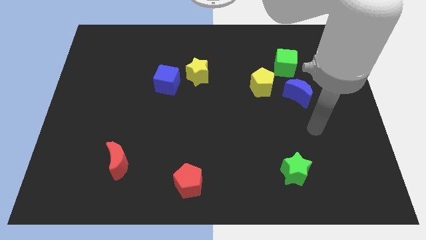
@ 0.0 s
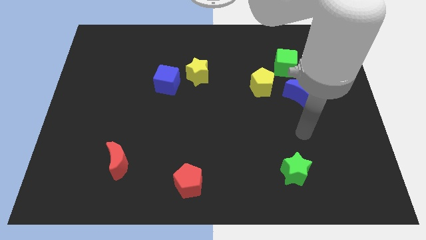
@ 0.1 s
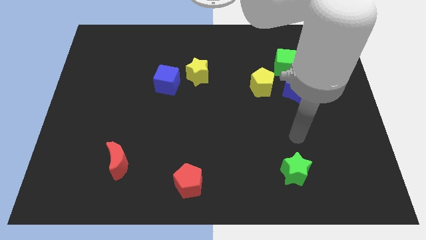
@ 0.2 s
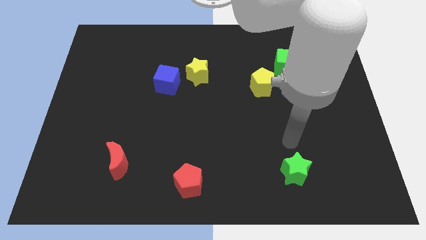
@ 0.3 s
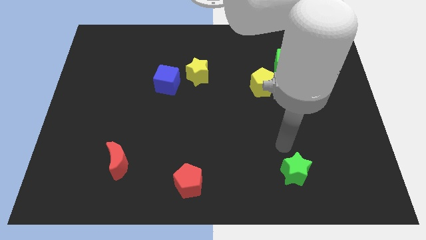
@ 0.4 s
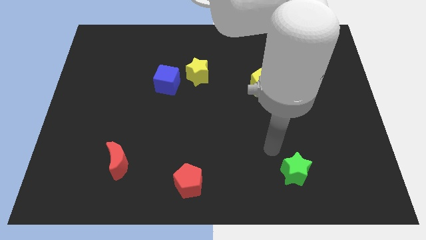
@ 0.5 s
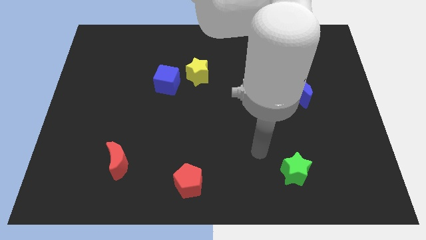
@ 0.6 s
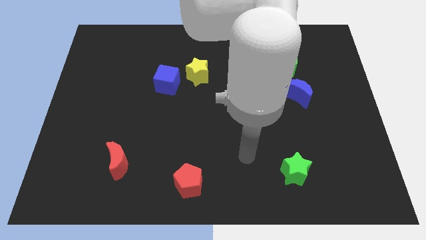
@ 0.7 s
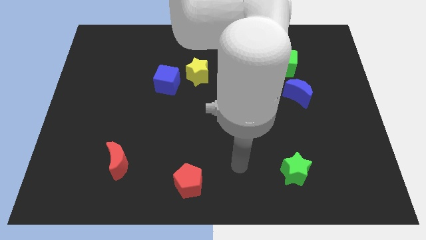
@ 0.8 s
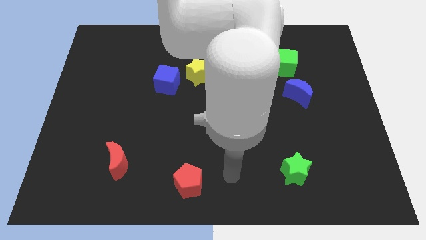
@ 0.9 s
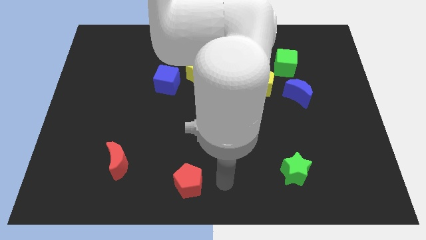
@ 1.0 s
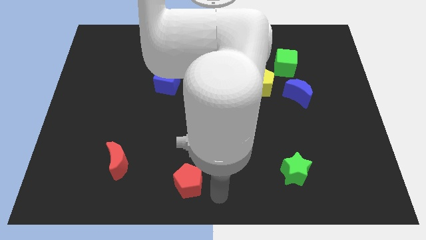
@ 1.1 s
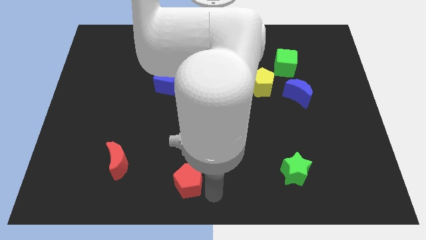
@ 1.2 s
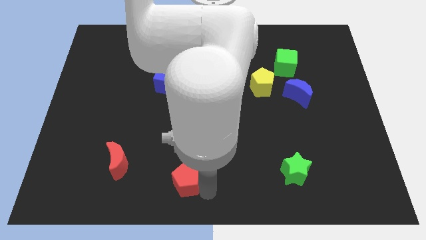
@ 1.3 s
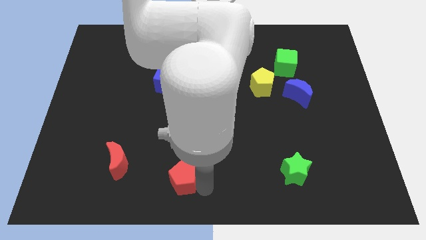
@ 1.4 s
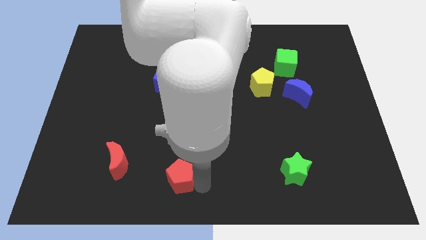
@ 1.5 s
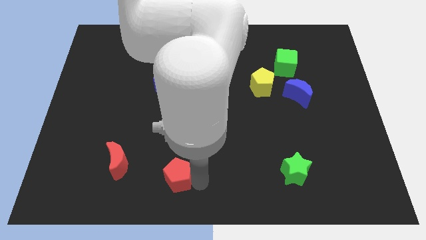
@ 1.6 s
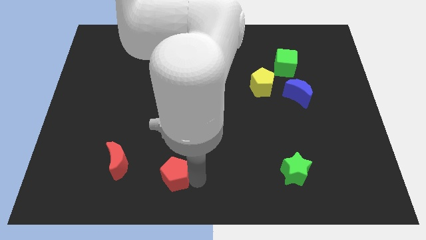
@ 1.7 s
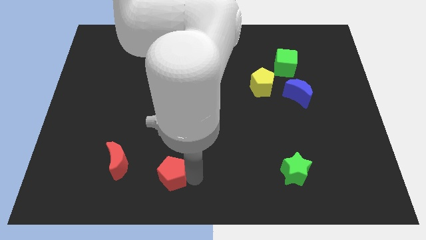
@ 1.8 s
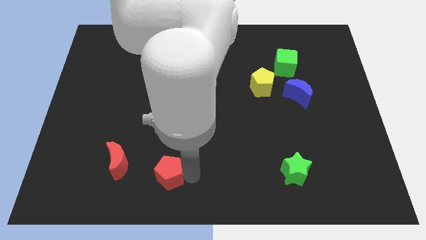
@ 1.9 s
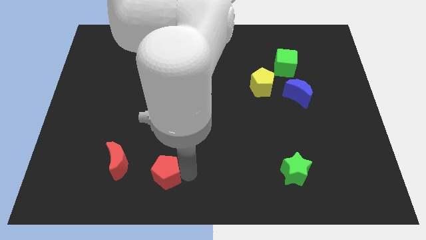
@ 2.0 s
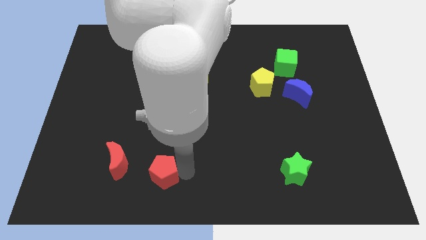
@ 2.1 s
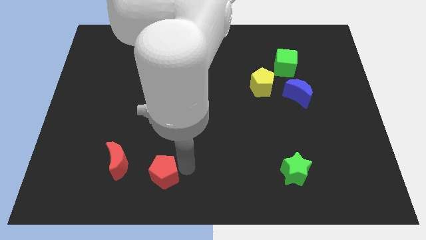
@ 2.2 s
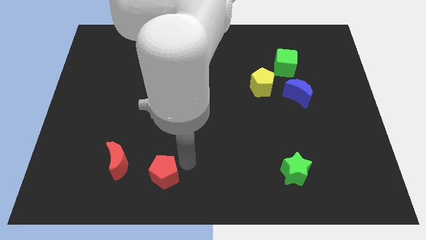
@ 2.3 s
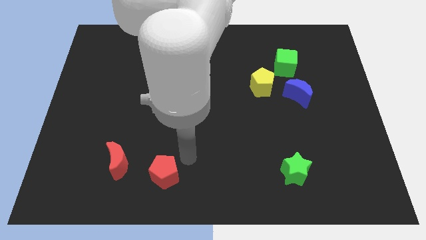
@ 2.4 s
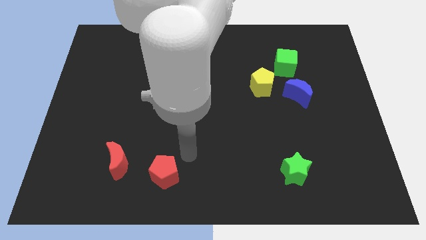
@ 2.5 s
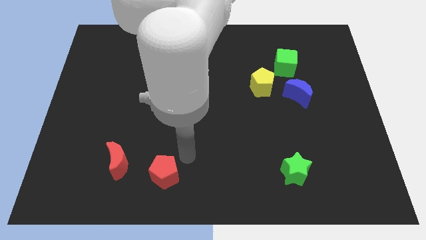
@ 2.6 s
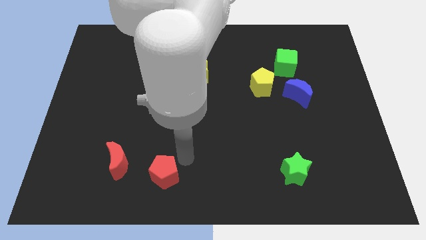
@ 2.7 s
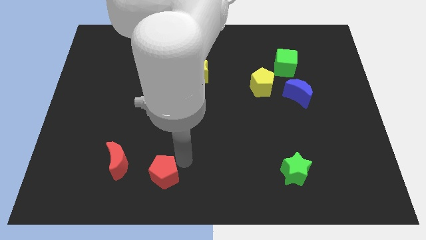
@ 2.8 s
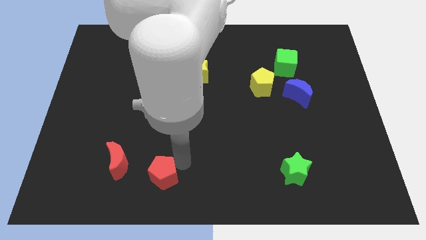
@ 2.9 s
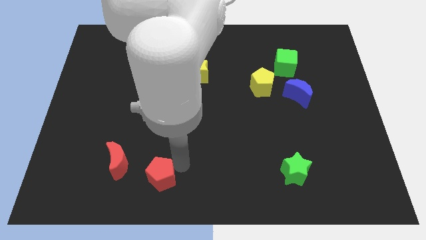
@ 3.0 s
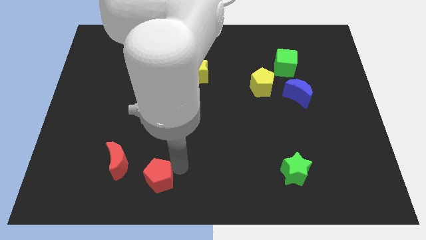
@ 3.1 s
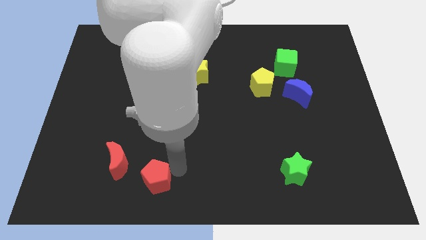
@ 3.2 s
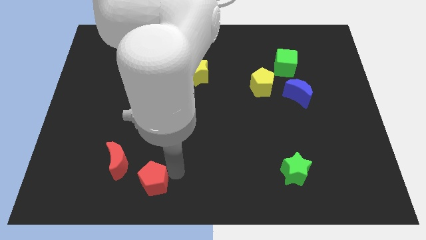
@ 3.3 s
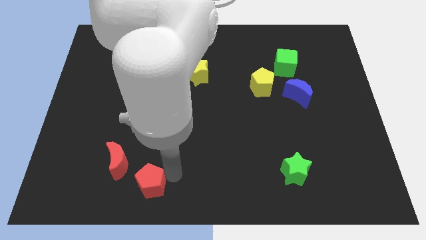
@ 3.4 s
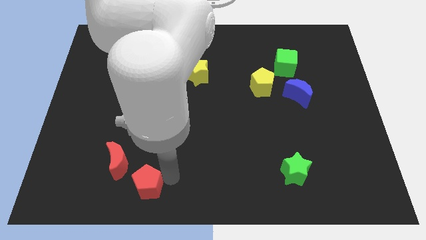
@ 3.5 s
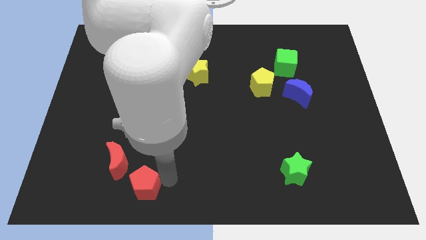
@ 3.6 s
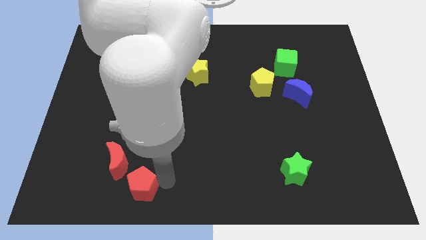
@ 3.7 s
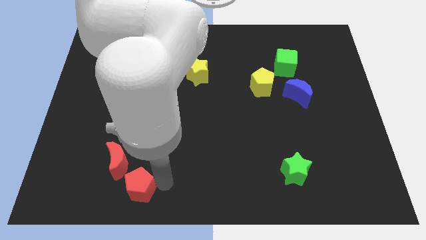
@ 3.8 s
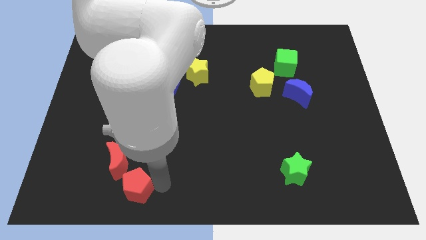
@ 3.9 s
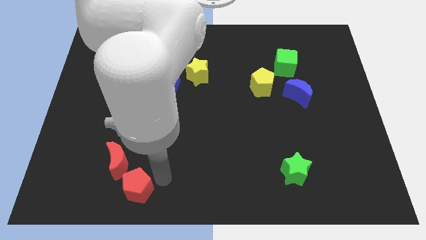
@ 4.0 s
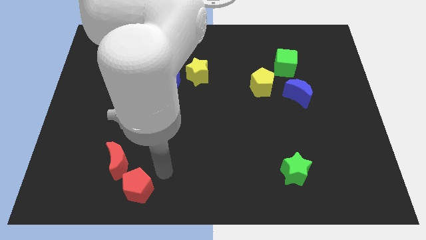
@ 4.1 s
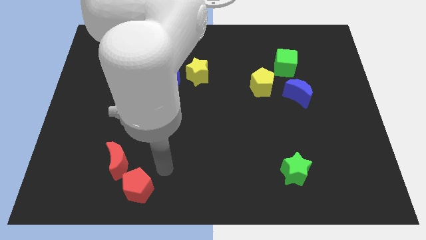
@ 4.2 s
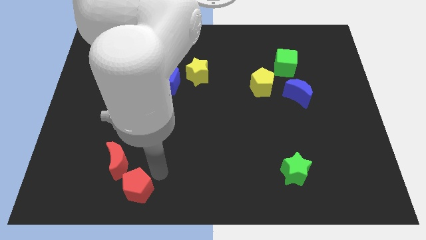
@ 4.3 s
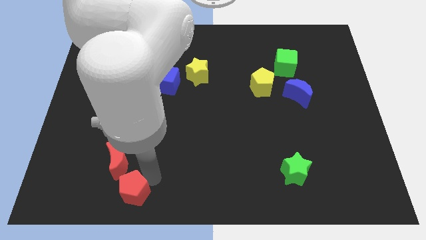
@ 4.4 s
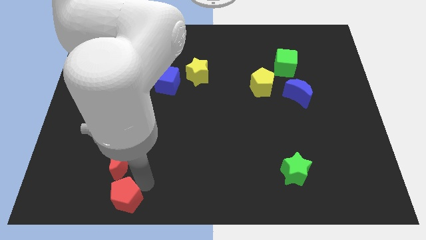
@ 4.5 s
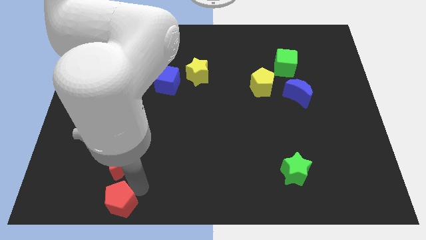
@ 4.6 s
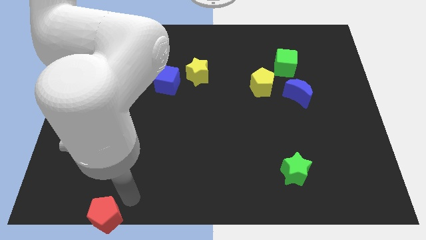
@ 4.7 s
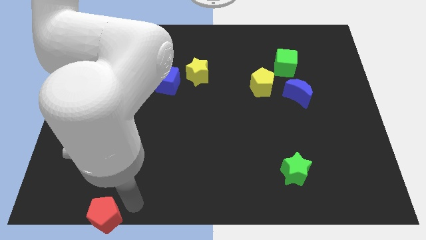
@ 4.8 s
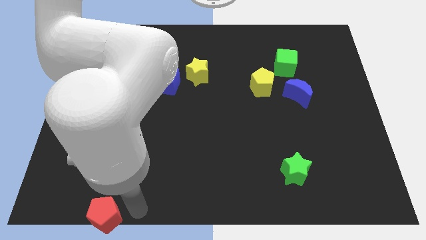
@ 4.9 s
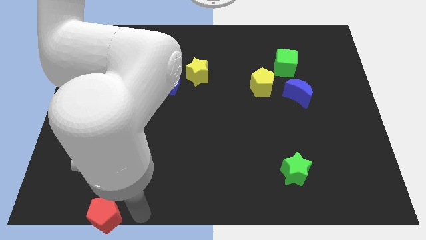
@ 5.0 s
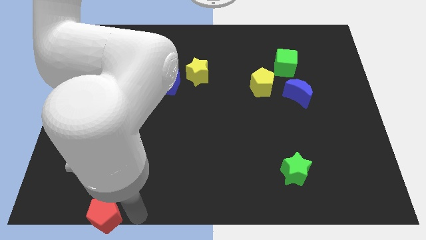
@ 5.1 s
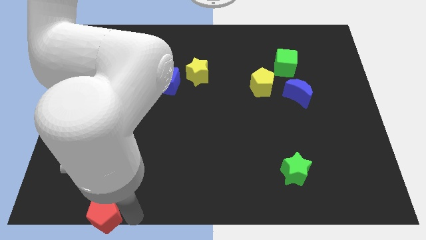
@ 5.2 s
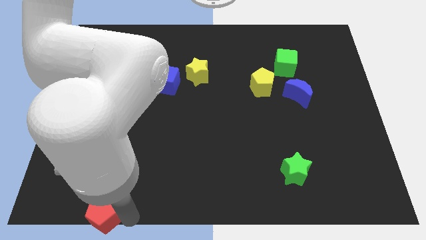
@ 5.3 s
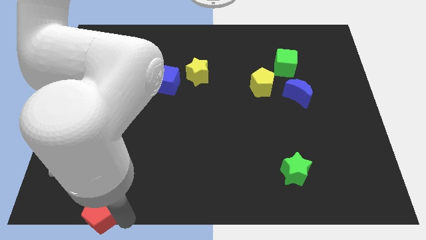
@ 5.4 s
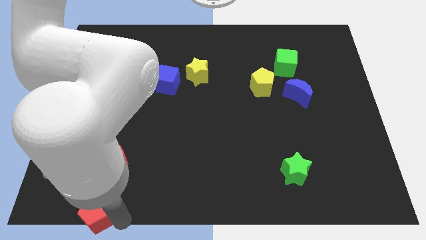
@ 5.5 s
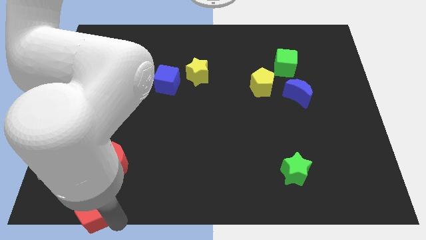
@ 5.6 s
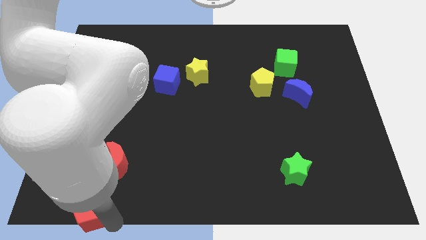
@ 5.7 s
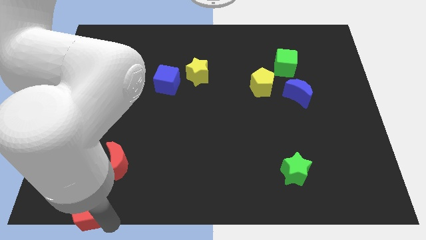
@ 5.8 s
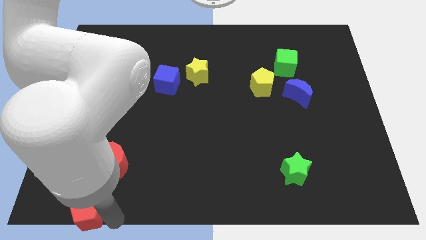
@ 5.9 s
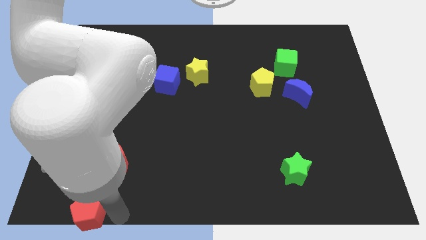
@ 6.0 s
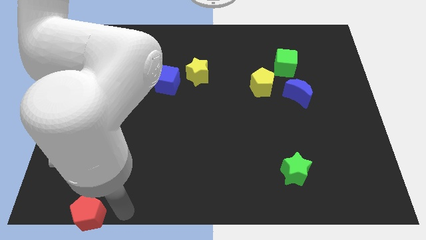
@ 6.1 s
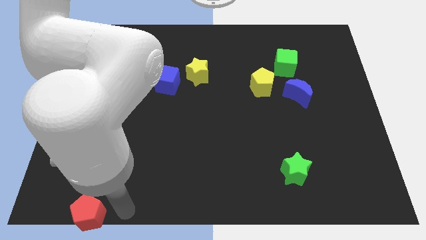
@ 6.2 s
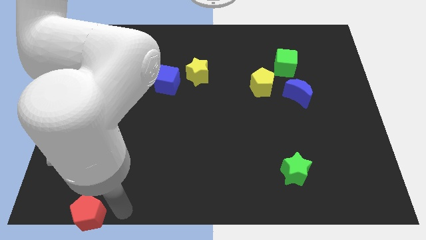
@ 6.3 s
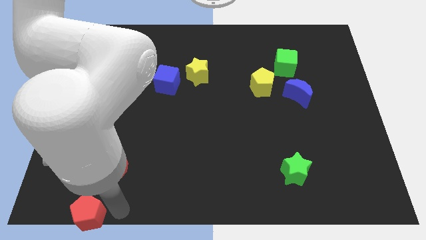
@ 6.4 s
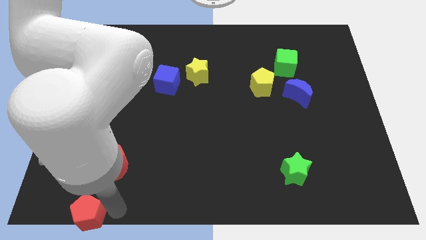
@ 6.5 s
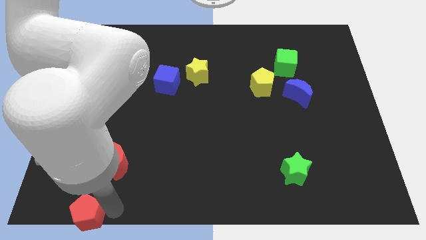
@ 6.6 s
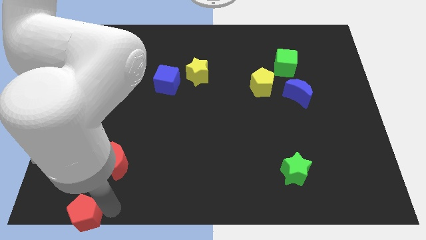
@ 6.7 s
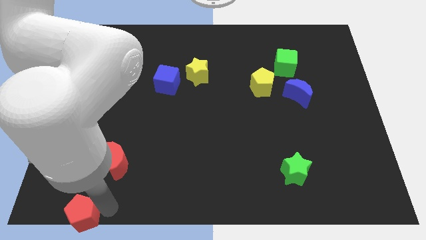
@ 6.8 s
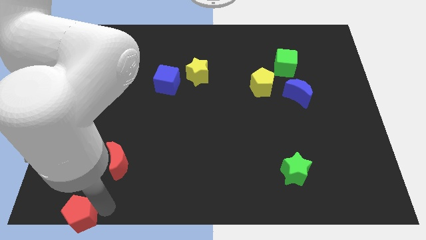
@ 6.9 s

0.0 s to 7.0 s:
move the red pentagon to the bottom left
